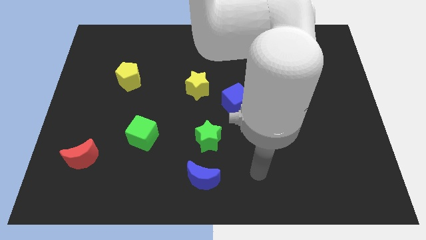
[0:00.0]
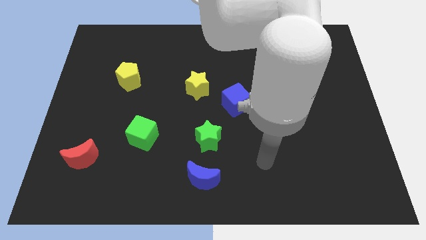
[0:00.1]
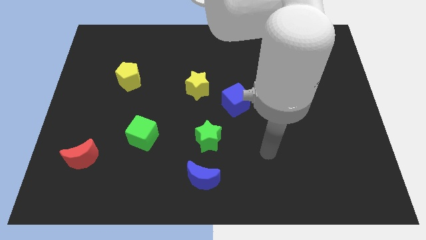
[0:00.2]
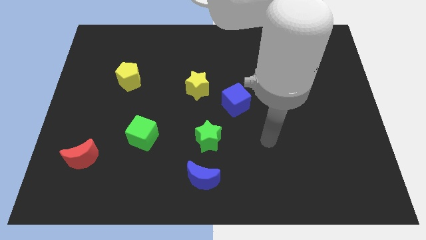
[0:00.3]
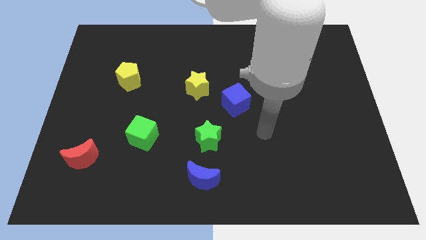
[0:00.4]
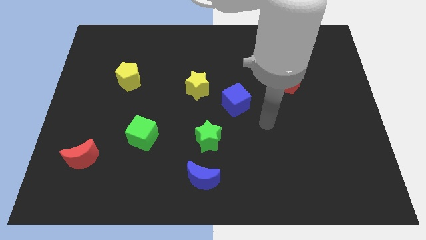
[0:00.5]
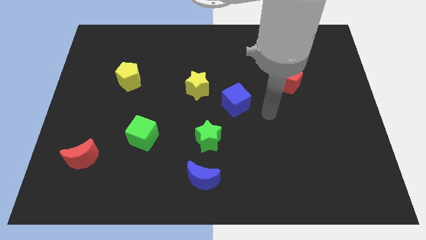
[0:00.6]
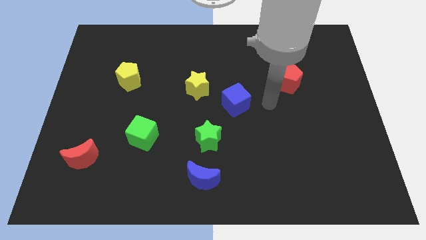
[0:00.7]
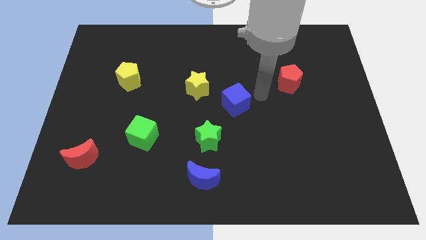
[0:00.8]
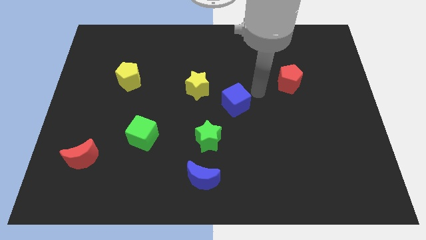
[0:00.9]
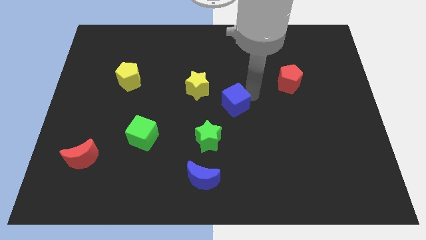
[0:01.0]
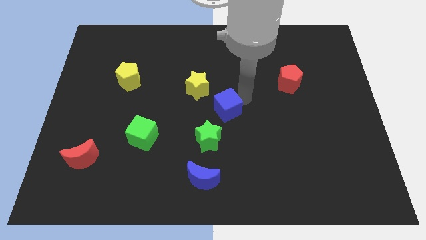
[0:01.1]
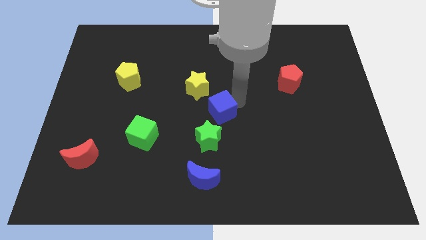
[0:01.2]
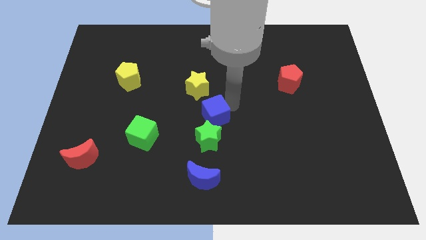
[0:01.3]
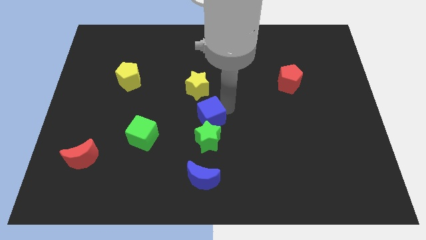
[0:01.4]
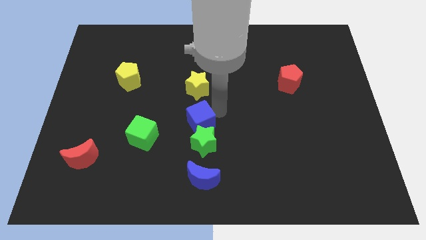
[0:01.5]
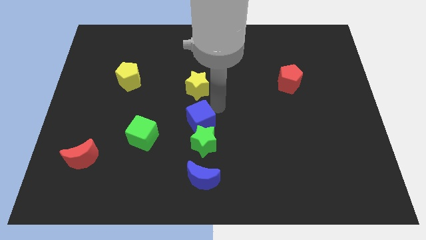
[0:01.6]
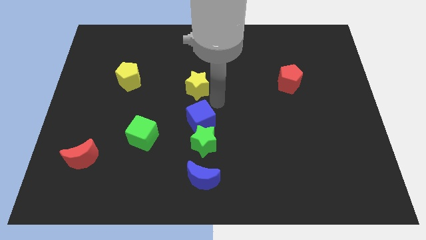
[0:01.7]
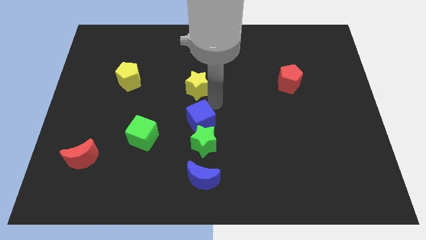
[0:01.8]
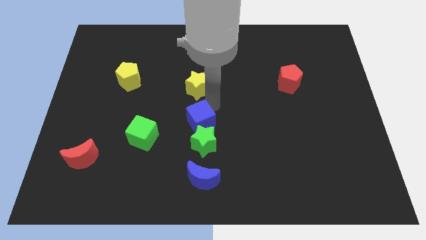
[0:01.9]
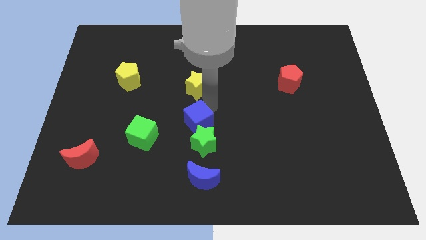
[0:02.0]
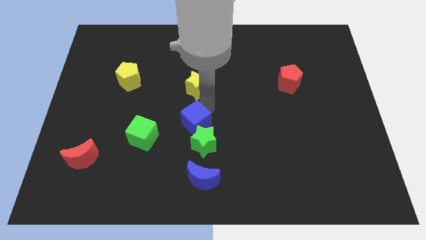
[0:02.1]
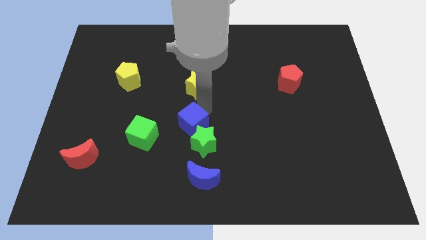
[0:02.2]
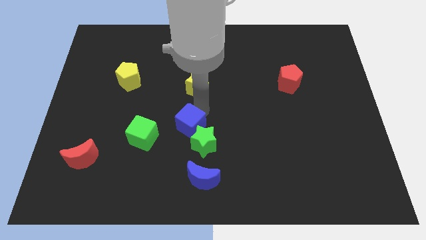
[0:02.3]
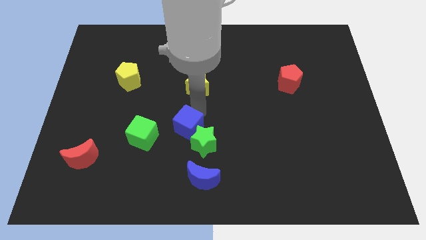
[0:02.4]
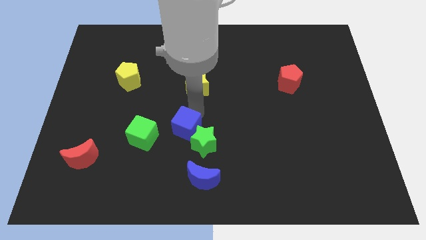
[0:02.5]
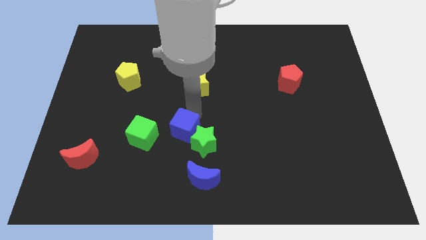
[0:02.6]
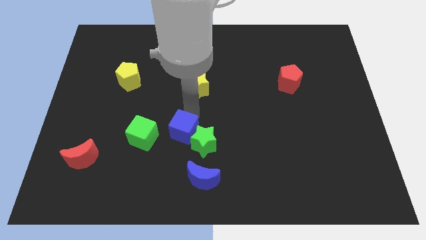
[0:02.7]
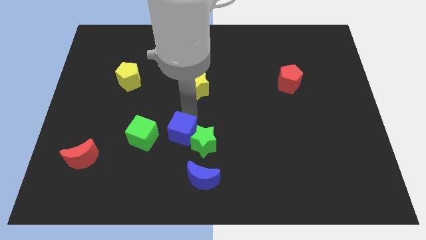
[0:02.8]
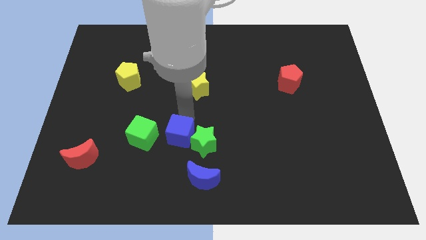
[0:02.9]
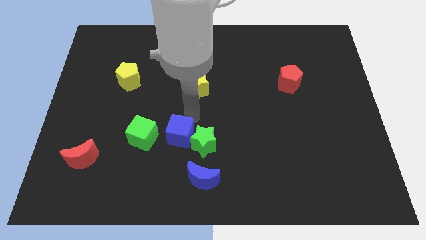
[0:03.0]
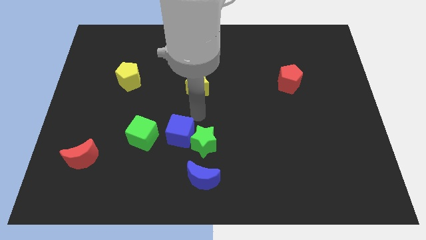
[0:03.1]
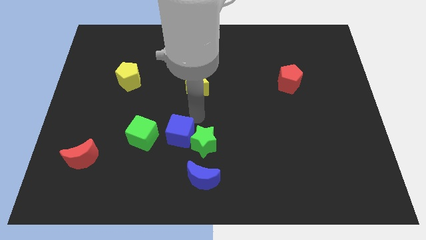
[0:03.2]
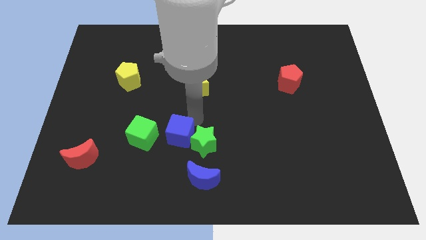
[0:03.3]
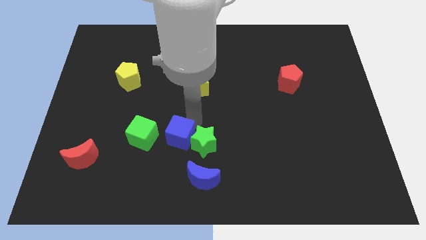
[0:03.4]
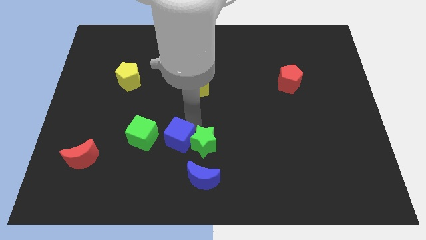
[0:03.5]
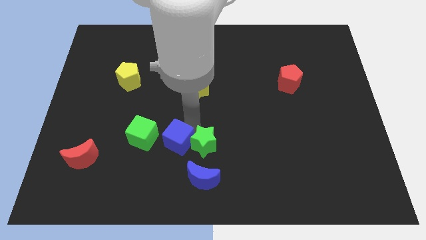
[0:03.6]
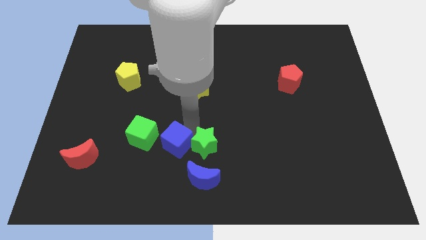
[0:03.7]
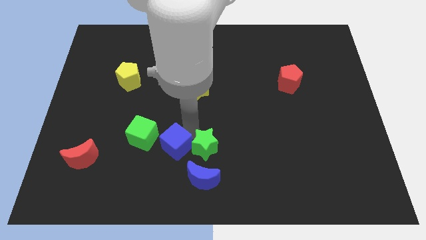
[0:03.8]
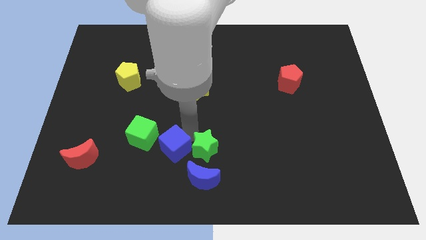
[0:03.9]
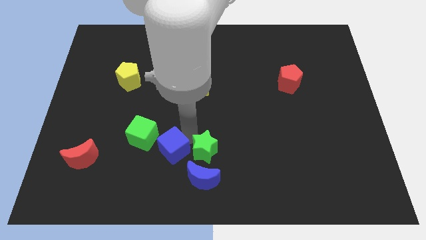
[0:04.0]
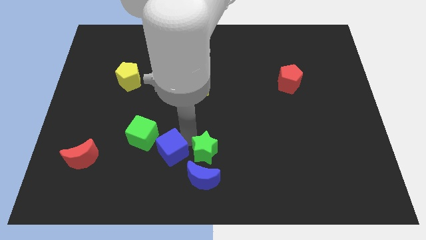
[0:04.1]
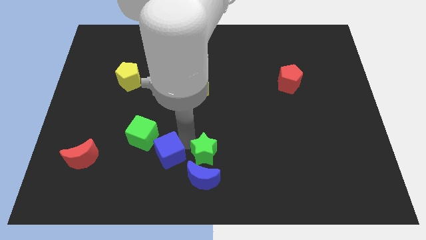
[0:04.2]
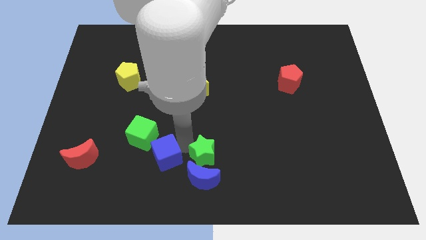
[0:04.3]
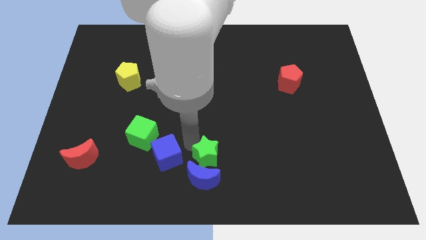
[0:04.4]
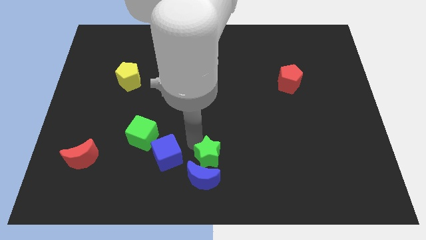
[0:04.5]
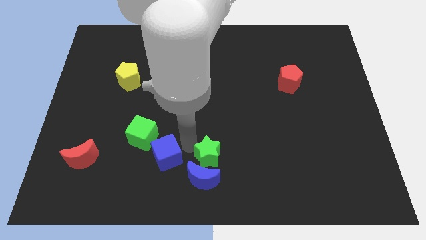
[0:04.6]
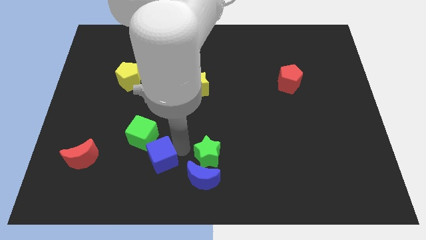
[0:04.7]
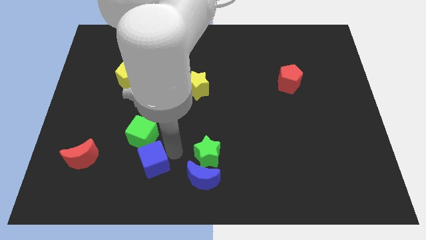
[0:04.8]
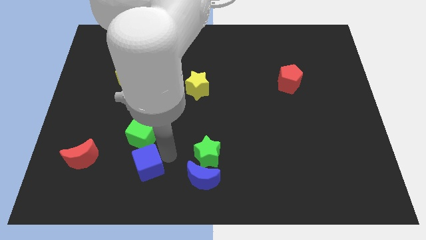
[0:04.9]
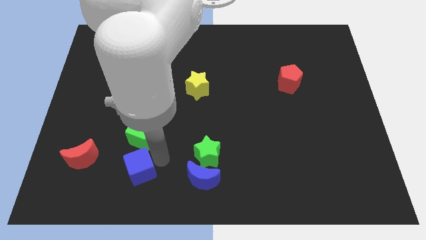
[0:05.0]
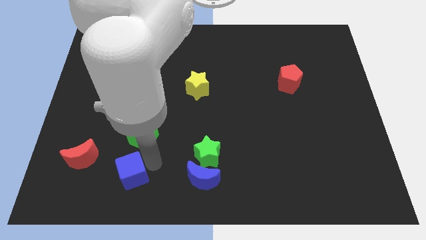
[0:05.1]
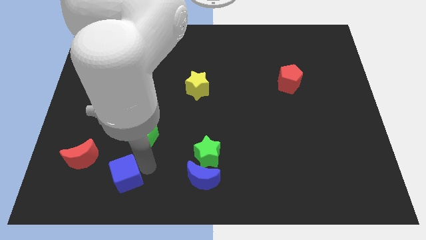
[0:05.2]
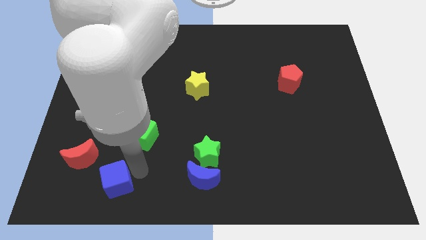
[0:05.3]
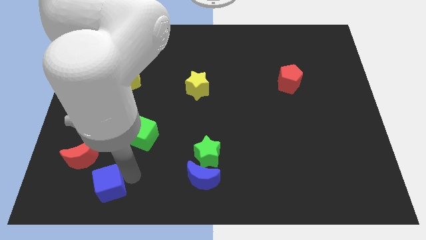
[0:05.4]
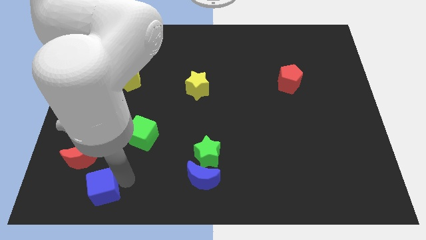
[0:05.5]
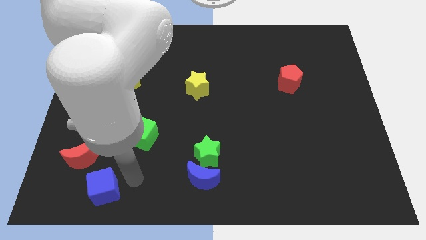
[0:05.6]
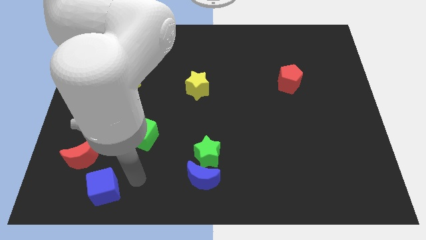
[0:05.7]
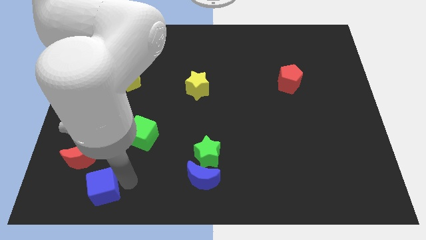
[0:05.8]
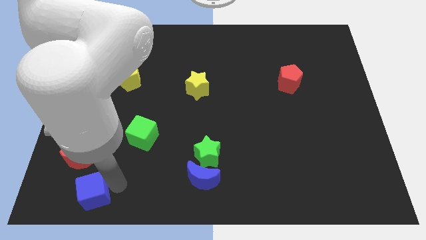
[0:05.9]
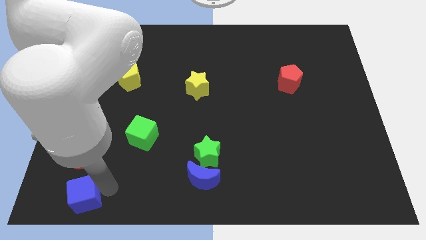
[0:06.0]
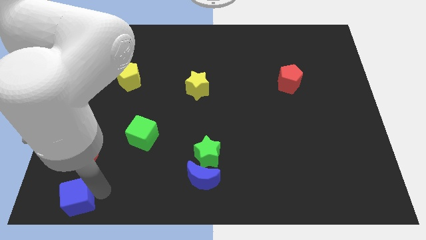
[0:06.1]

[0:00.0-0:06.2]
move the blue cube to the bottom left corner
